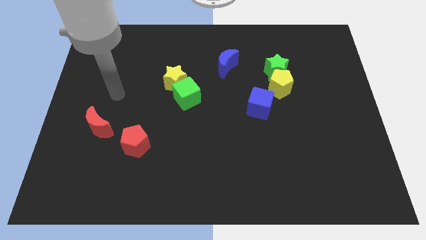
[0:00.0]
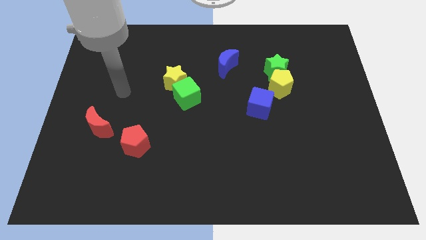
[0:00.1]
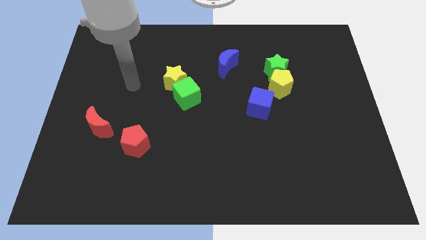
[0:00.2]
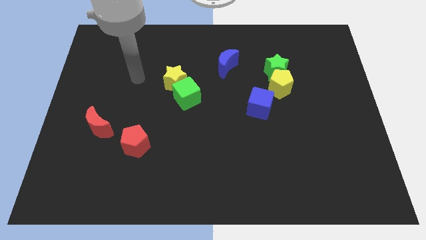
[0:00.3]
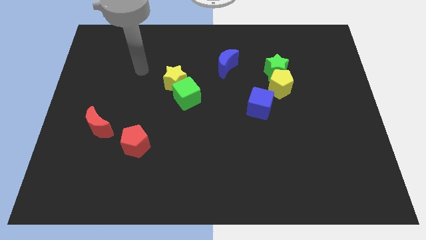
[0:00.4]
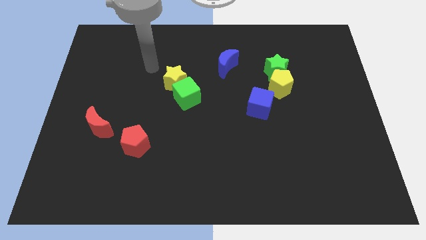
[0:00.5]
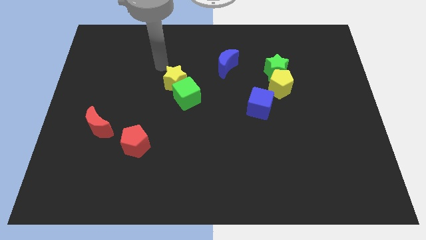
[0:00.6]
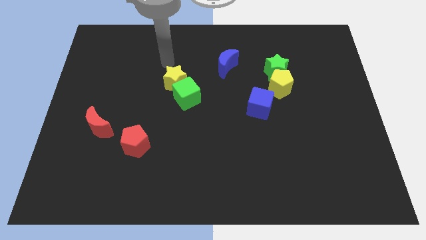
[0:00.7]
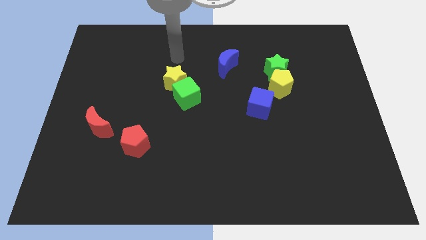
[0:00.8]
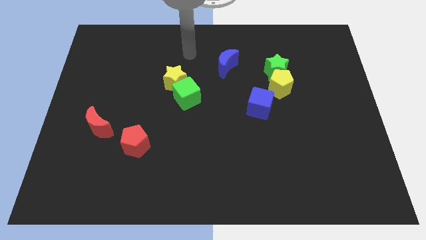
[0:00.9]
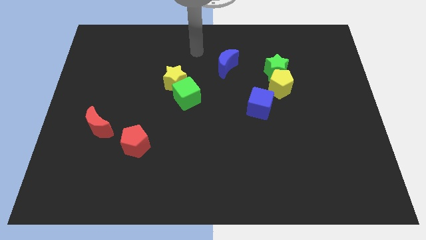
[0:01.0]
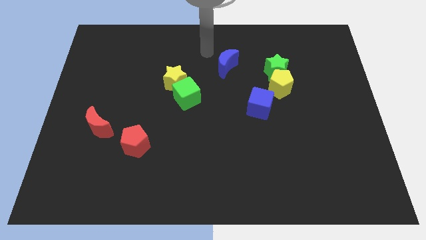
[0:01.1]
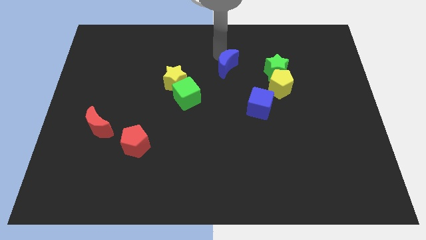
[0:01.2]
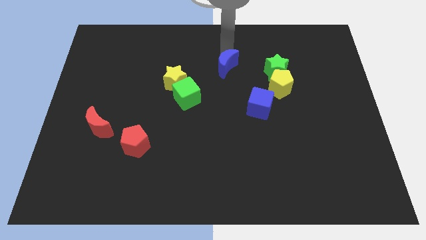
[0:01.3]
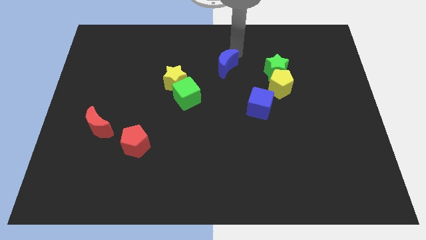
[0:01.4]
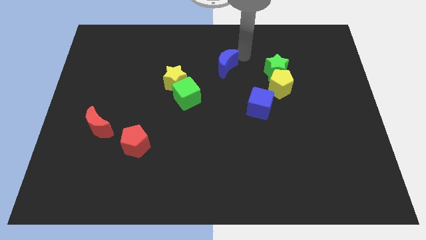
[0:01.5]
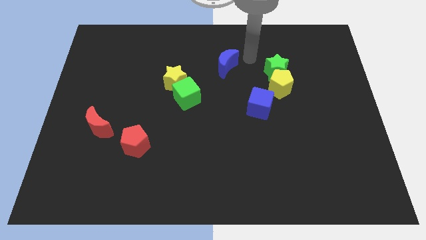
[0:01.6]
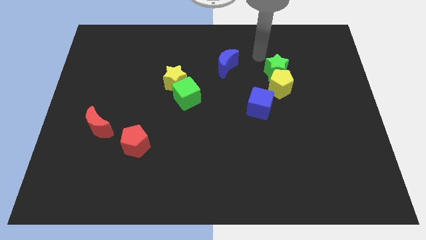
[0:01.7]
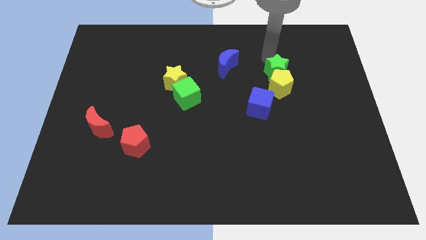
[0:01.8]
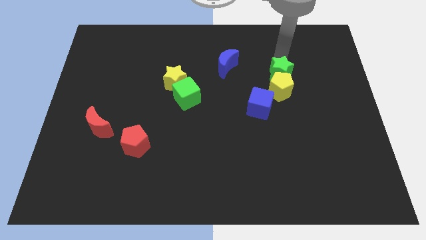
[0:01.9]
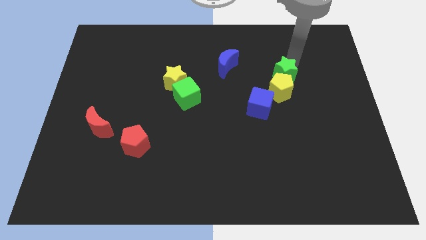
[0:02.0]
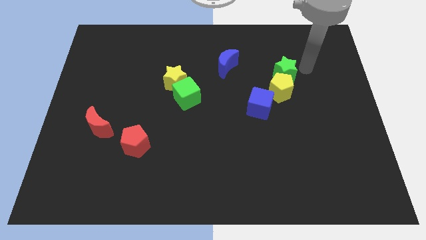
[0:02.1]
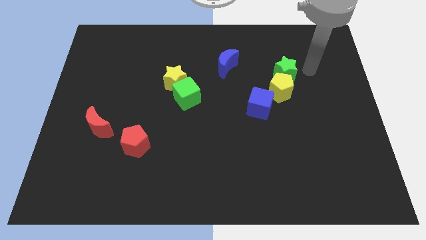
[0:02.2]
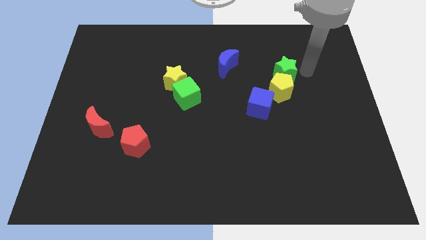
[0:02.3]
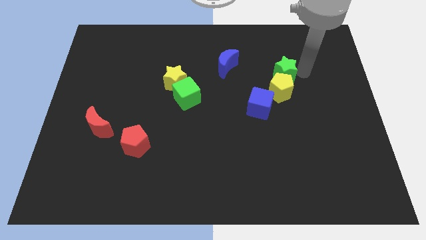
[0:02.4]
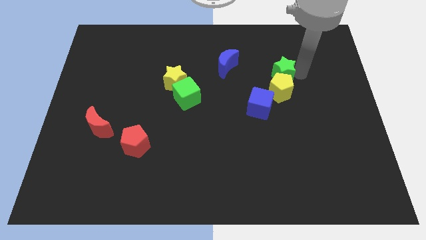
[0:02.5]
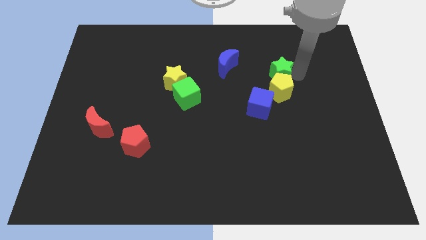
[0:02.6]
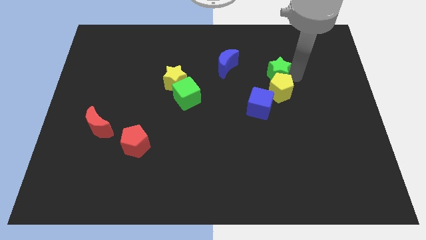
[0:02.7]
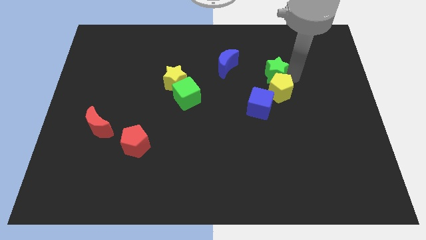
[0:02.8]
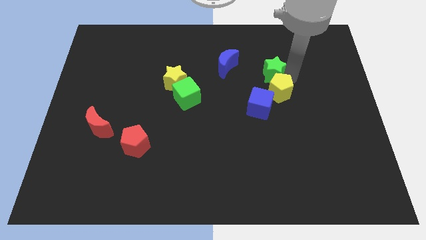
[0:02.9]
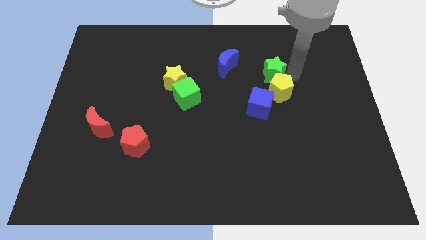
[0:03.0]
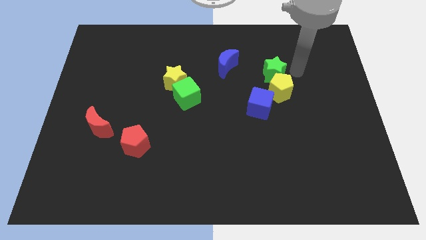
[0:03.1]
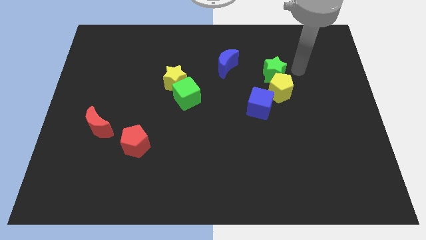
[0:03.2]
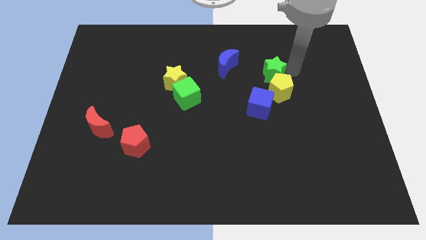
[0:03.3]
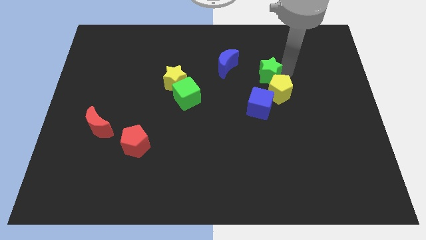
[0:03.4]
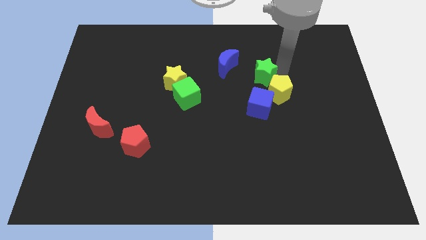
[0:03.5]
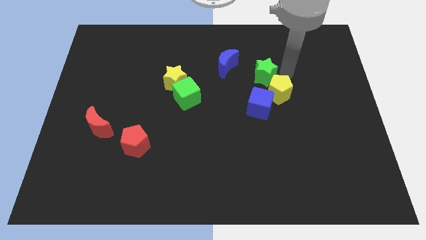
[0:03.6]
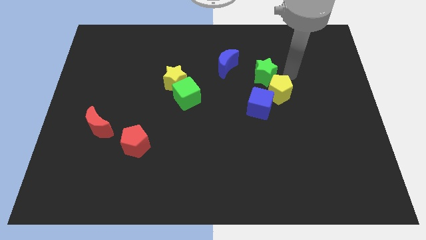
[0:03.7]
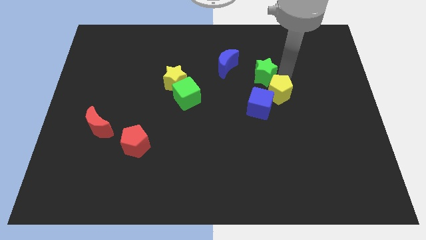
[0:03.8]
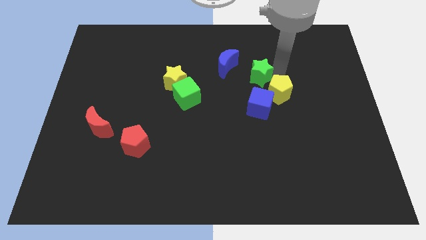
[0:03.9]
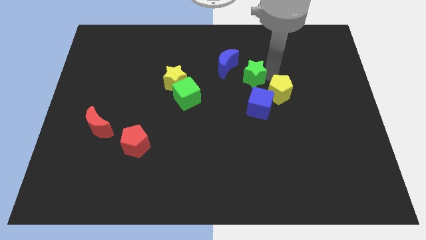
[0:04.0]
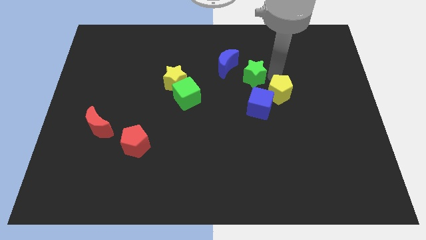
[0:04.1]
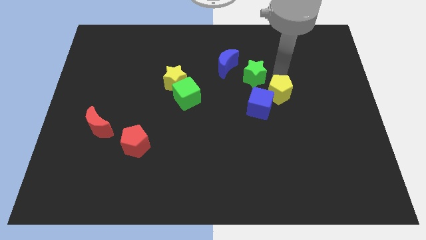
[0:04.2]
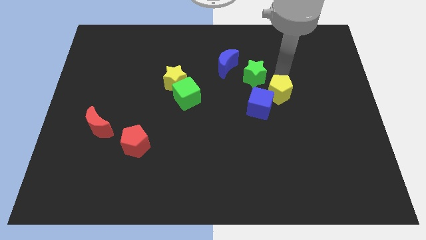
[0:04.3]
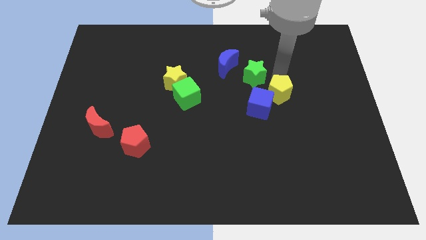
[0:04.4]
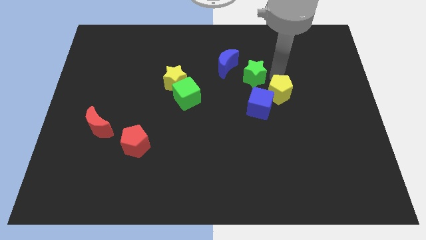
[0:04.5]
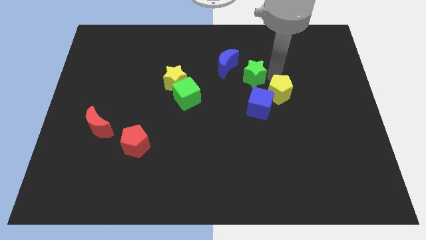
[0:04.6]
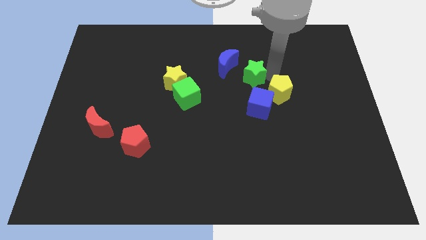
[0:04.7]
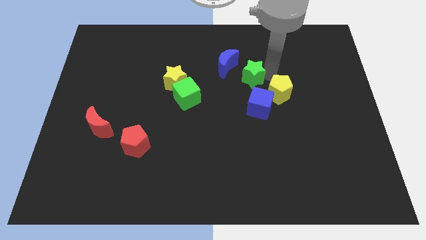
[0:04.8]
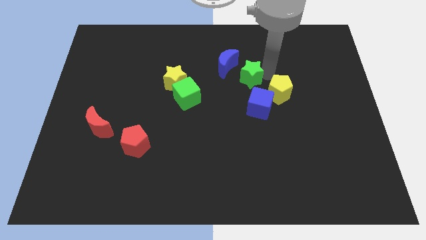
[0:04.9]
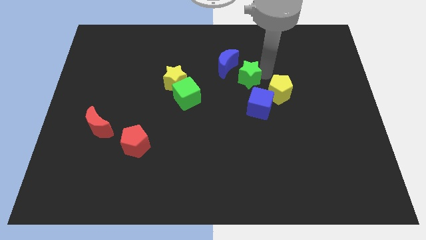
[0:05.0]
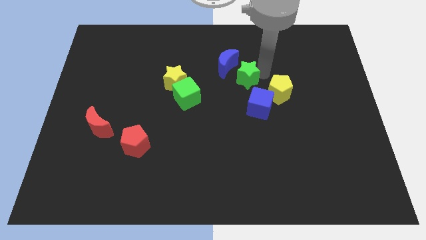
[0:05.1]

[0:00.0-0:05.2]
push the green star somewhat to the left

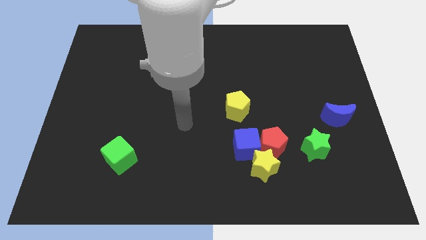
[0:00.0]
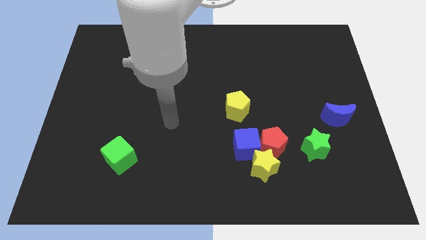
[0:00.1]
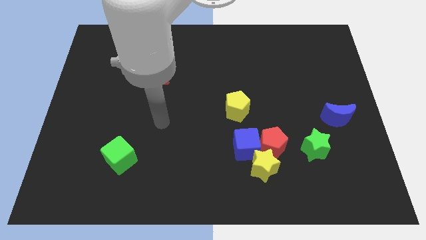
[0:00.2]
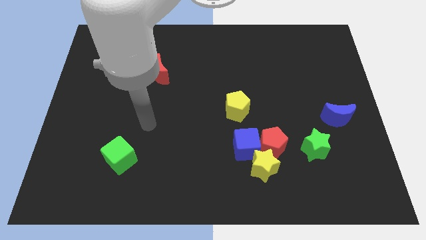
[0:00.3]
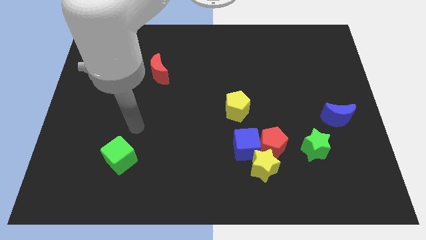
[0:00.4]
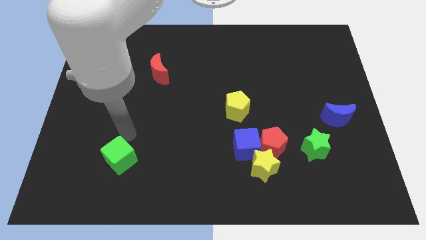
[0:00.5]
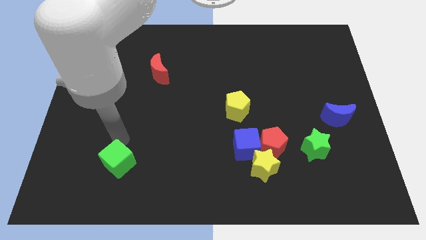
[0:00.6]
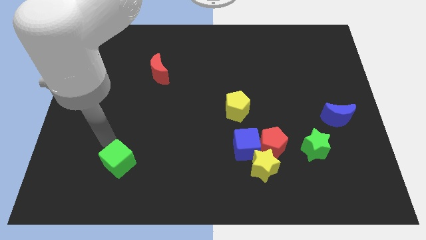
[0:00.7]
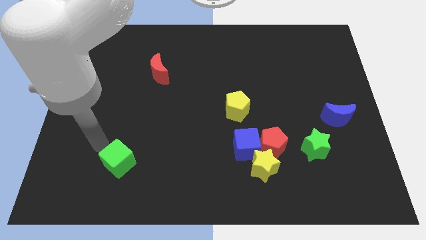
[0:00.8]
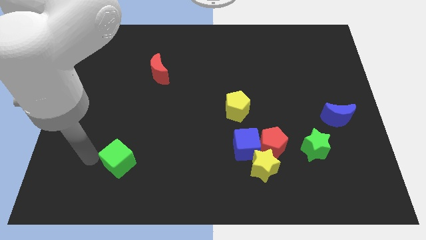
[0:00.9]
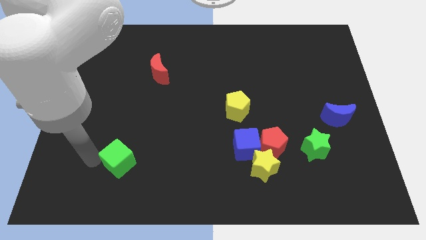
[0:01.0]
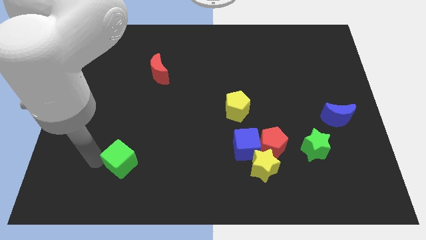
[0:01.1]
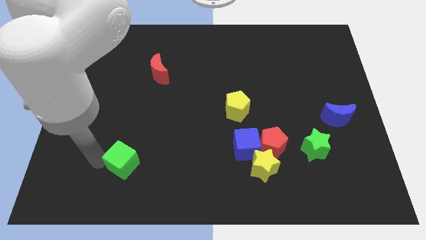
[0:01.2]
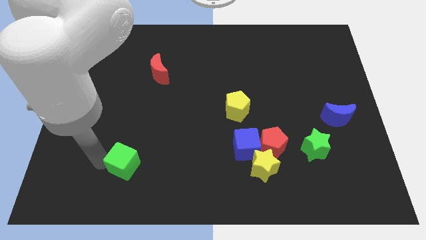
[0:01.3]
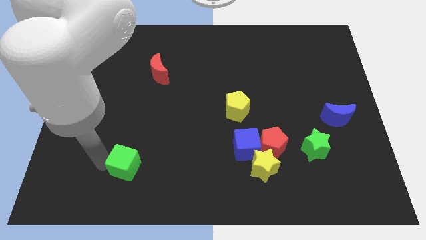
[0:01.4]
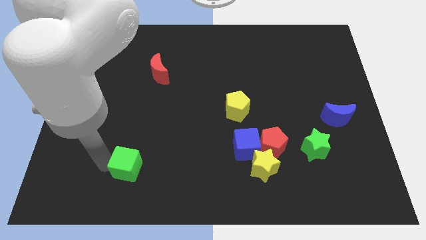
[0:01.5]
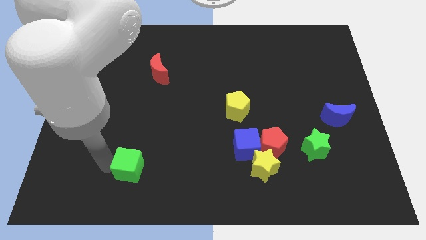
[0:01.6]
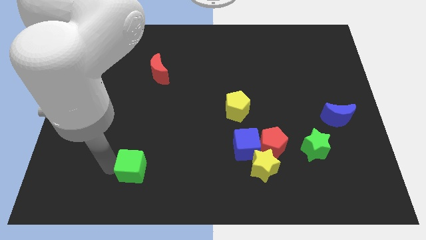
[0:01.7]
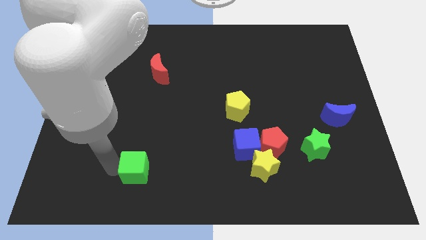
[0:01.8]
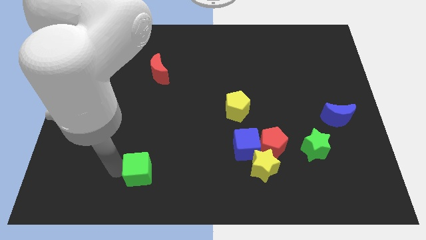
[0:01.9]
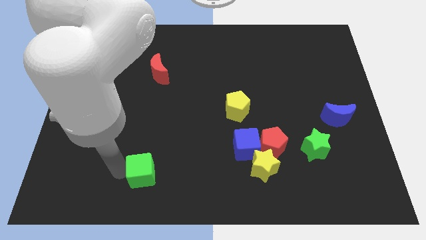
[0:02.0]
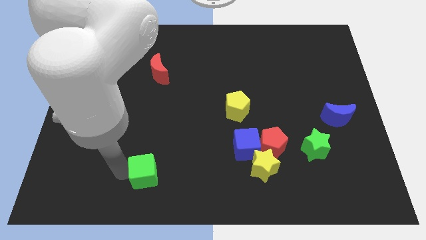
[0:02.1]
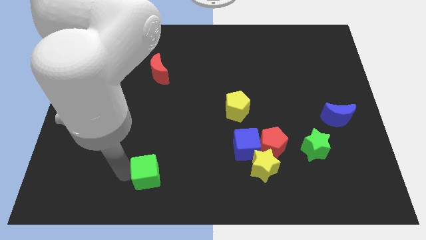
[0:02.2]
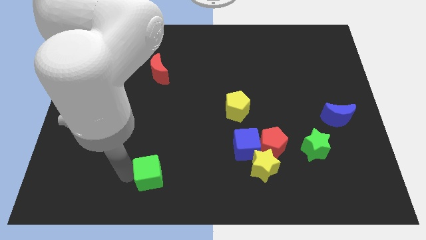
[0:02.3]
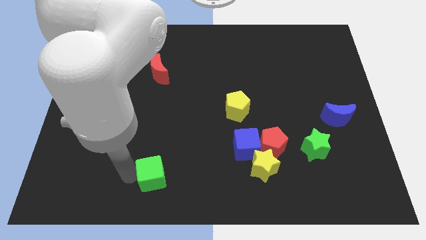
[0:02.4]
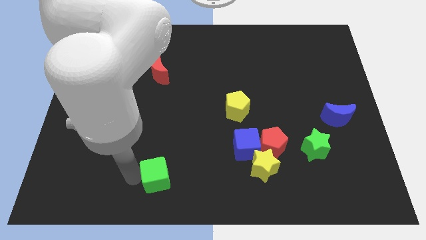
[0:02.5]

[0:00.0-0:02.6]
slide the green cube a bit right

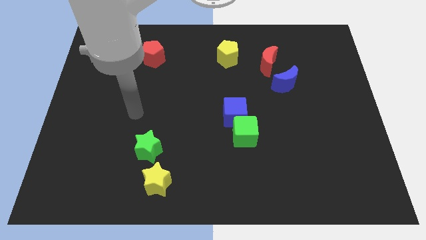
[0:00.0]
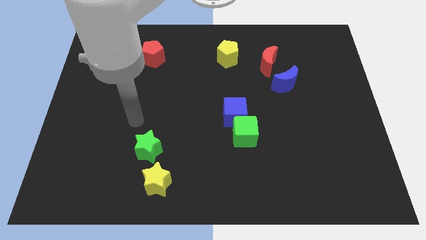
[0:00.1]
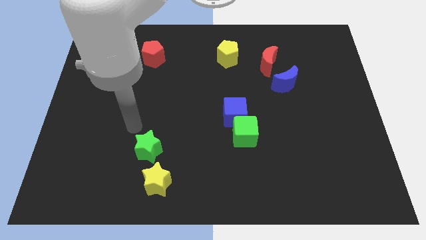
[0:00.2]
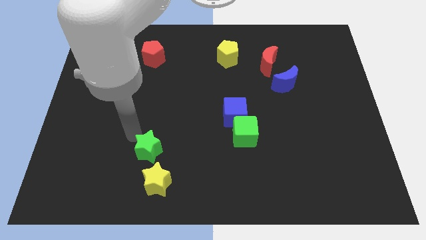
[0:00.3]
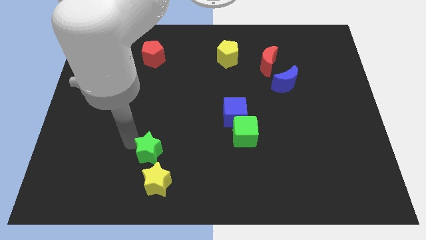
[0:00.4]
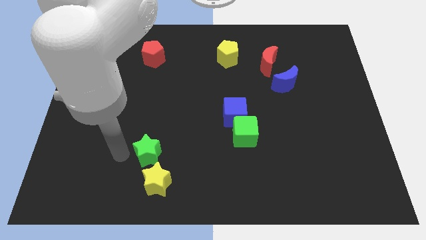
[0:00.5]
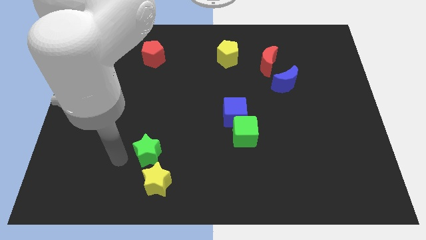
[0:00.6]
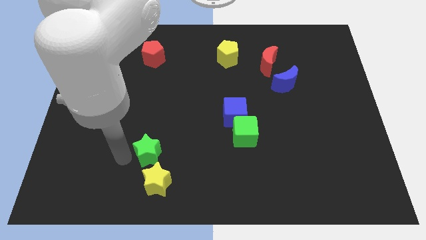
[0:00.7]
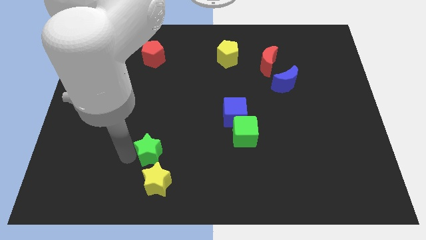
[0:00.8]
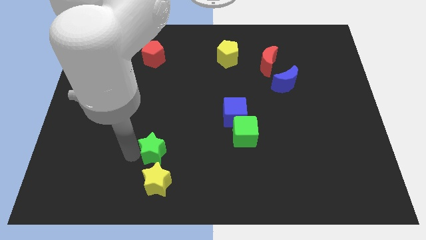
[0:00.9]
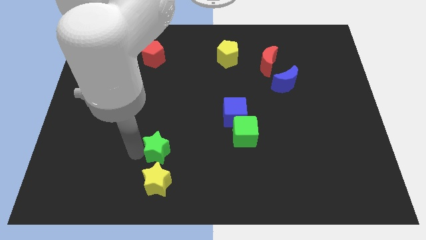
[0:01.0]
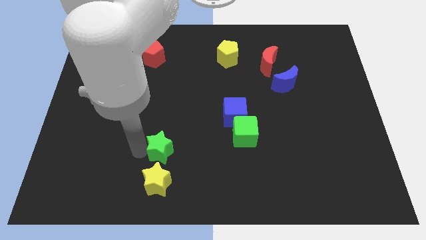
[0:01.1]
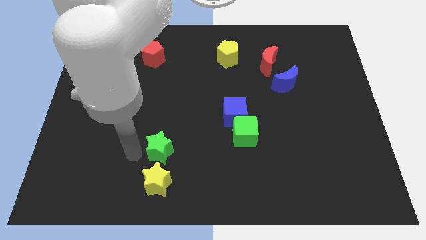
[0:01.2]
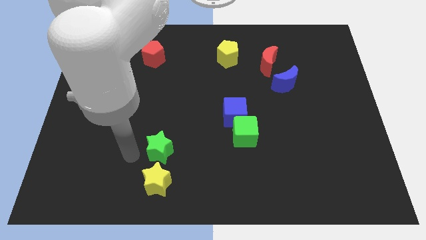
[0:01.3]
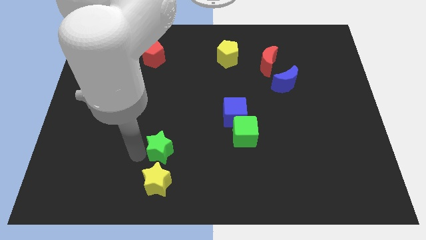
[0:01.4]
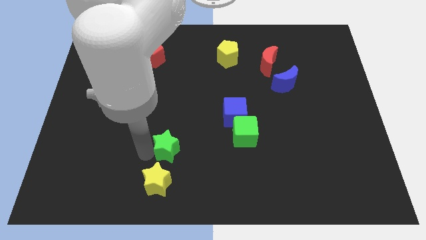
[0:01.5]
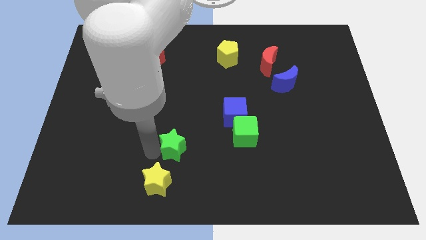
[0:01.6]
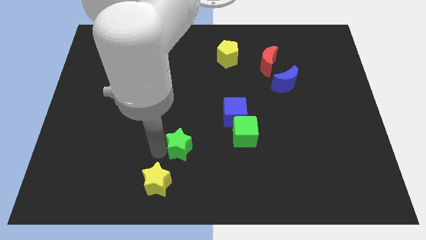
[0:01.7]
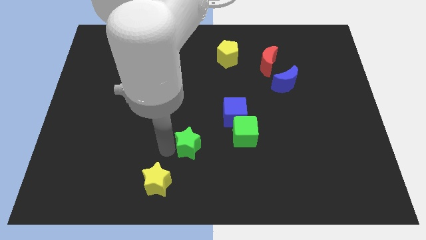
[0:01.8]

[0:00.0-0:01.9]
move the green star somewhat to the right
